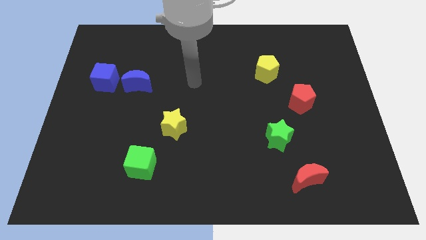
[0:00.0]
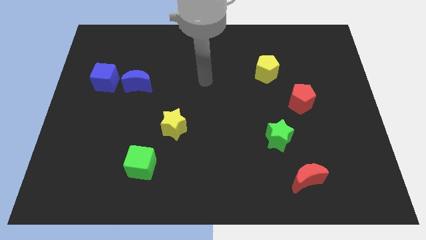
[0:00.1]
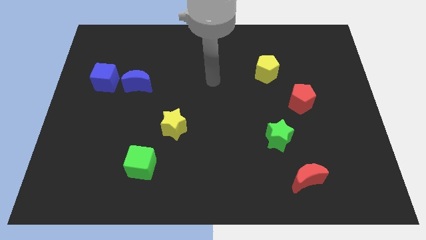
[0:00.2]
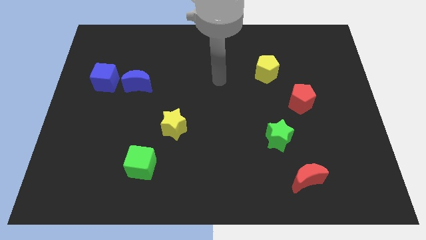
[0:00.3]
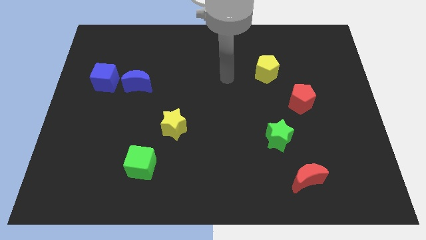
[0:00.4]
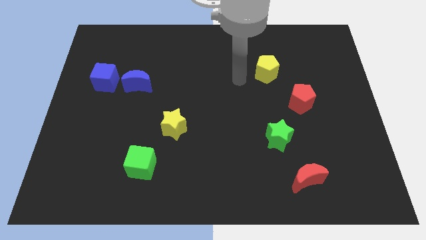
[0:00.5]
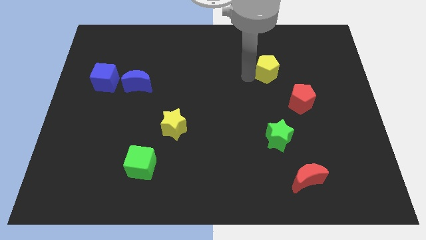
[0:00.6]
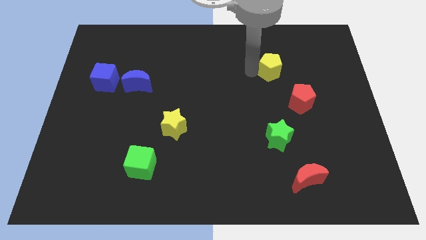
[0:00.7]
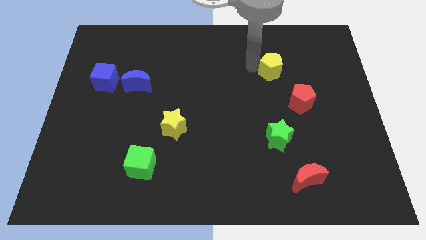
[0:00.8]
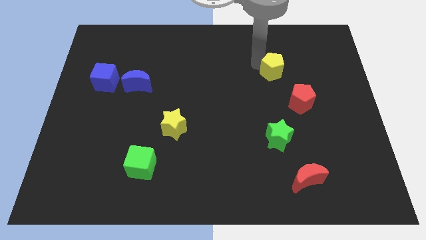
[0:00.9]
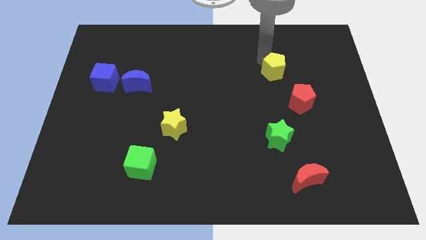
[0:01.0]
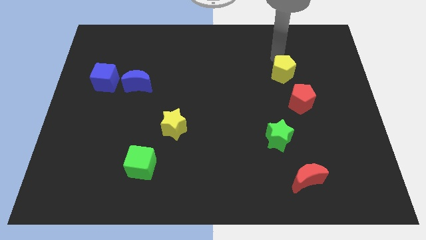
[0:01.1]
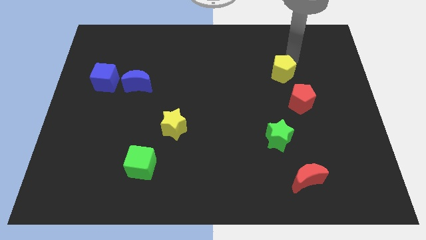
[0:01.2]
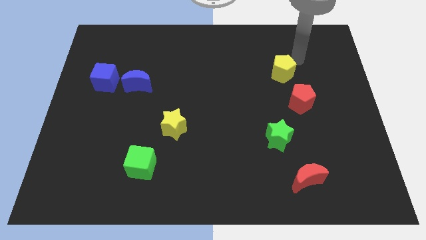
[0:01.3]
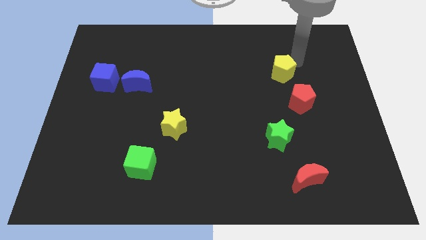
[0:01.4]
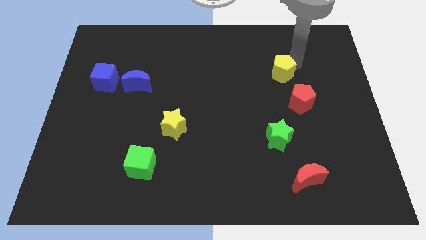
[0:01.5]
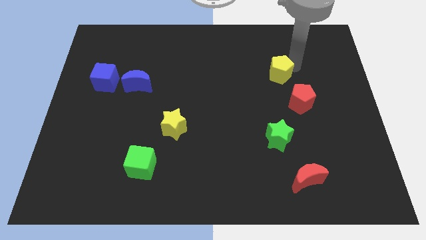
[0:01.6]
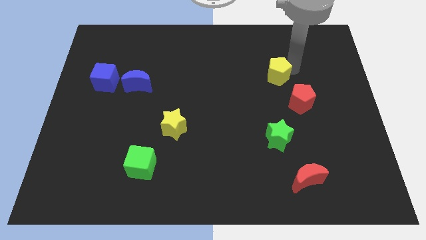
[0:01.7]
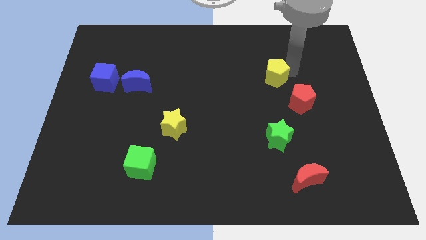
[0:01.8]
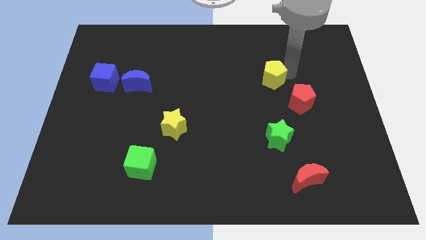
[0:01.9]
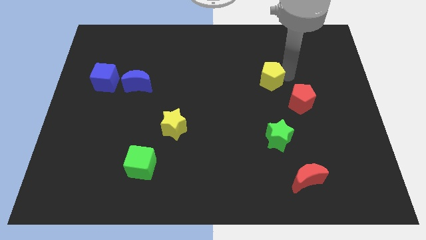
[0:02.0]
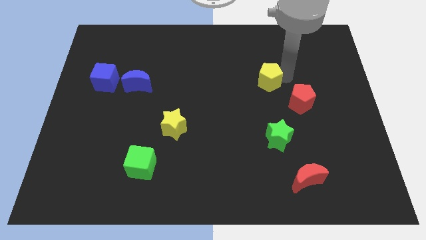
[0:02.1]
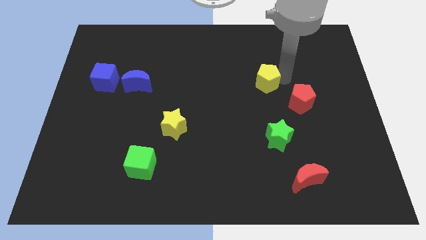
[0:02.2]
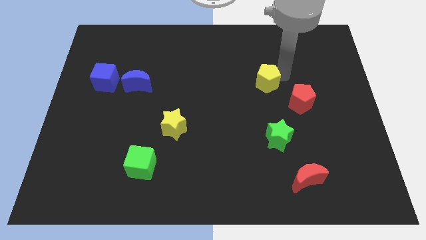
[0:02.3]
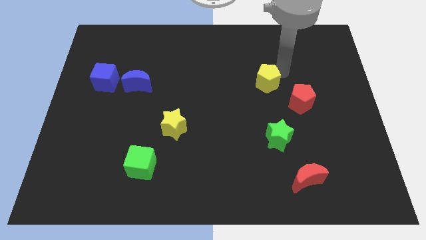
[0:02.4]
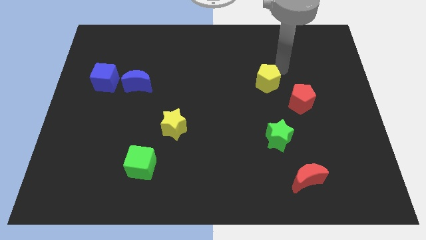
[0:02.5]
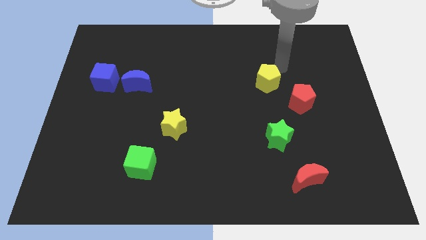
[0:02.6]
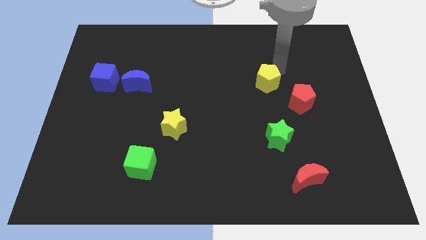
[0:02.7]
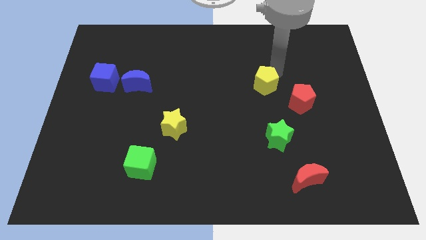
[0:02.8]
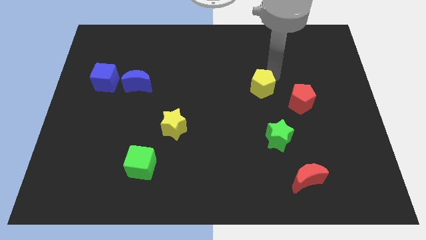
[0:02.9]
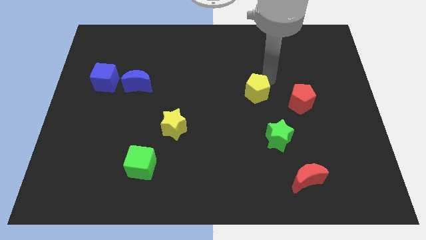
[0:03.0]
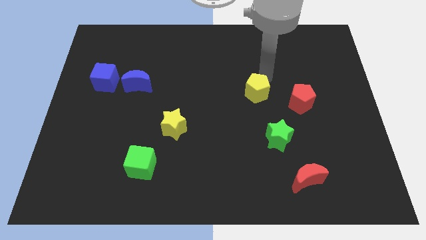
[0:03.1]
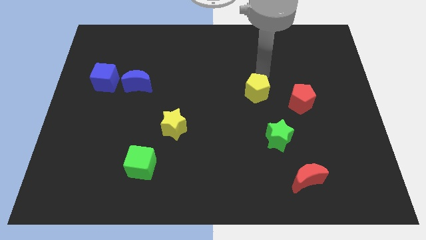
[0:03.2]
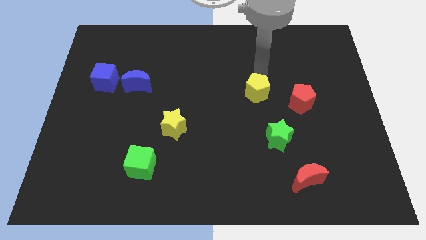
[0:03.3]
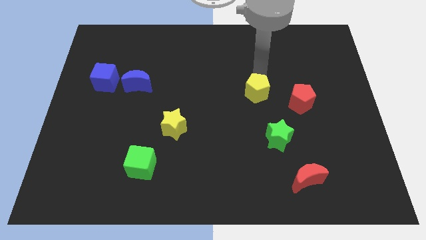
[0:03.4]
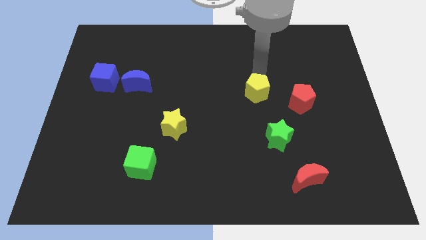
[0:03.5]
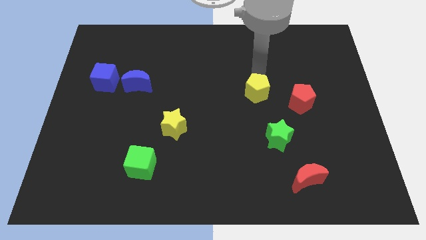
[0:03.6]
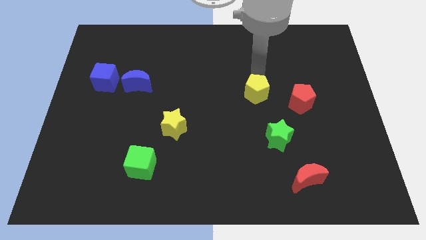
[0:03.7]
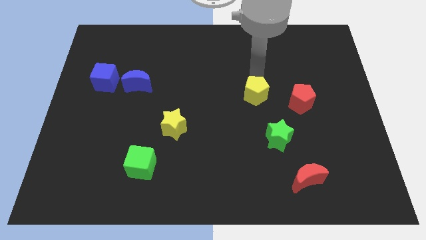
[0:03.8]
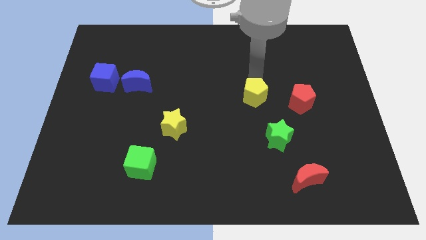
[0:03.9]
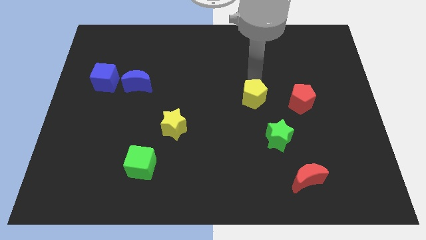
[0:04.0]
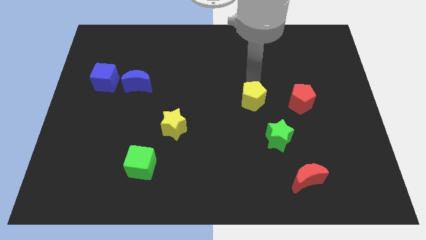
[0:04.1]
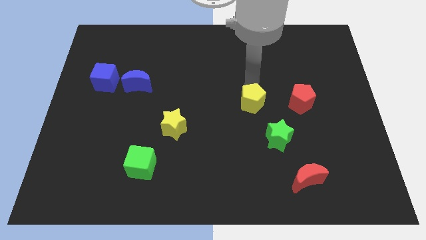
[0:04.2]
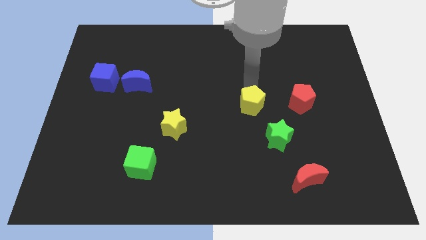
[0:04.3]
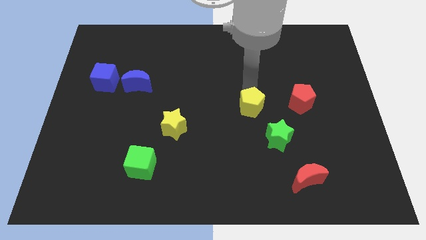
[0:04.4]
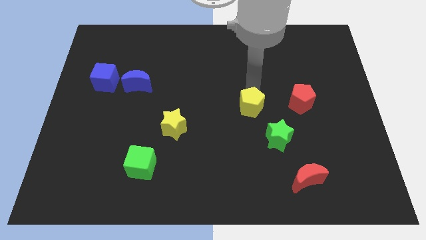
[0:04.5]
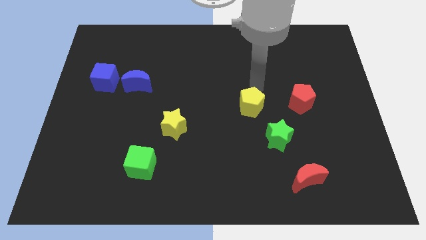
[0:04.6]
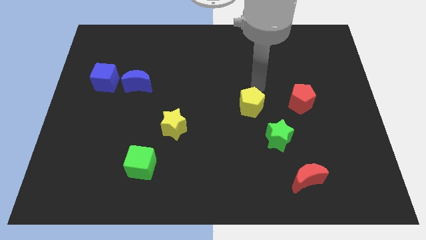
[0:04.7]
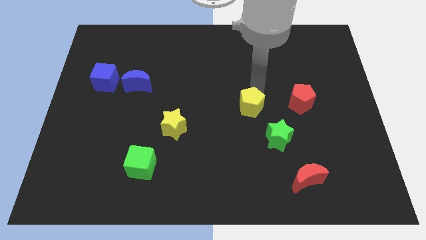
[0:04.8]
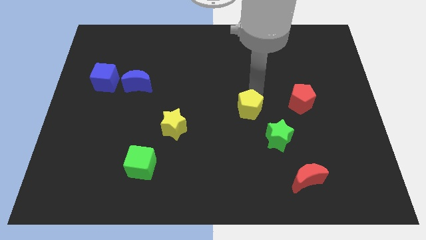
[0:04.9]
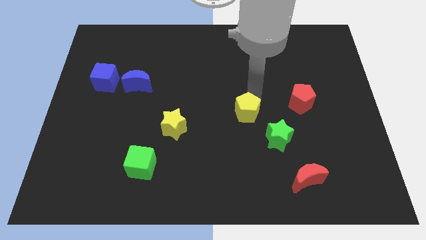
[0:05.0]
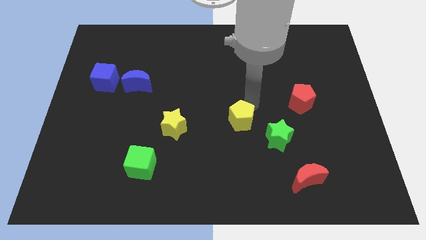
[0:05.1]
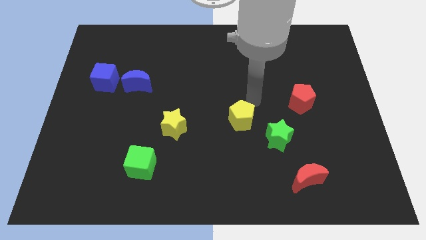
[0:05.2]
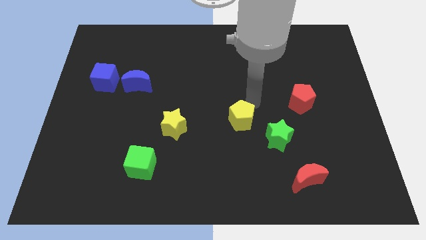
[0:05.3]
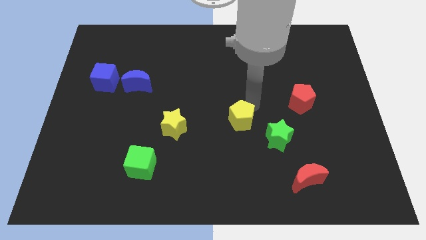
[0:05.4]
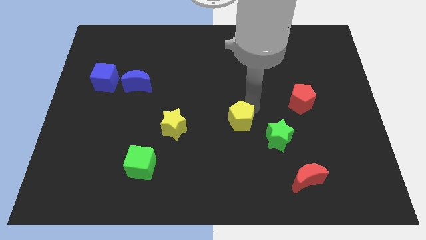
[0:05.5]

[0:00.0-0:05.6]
put the yellow pentagon just left of the green star

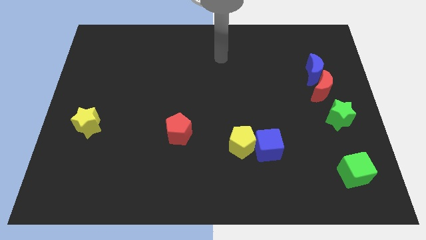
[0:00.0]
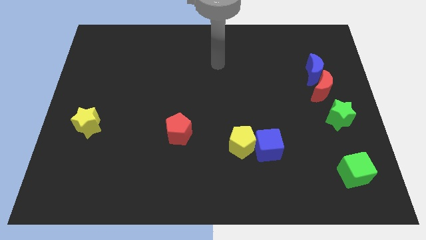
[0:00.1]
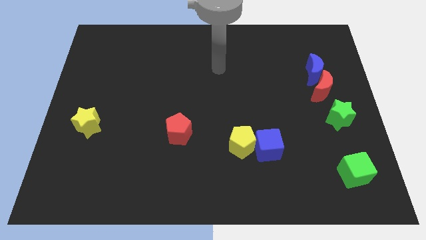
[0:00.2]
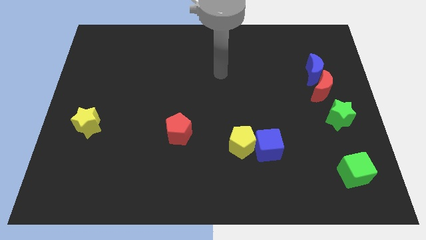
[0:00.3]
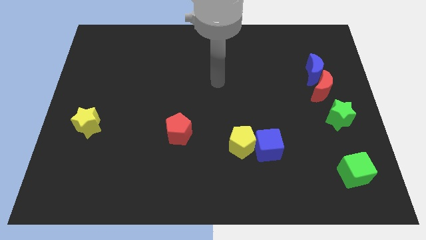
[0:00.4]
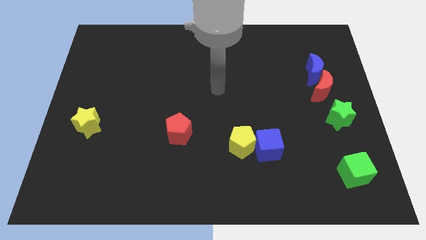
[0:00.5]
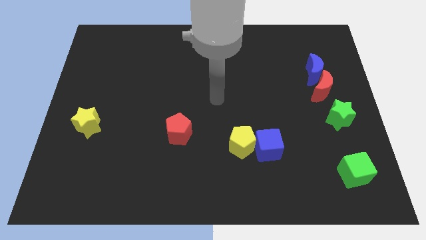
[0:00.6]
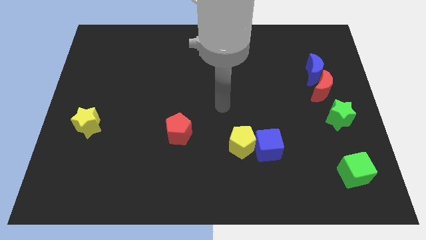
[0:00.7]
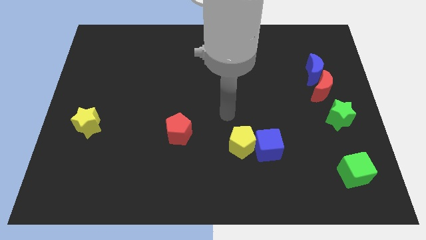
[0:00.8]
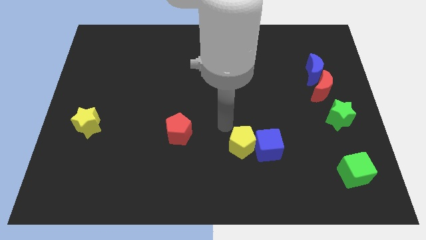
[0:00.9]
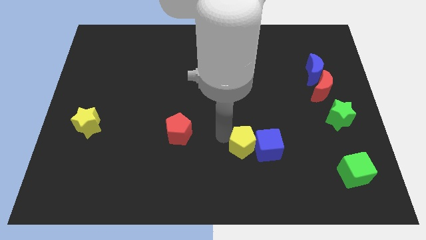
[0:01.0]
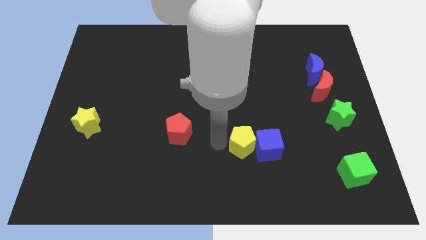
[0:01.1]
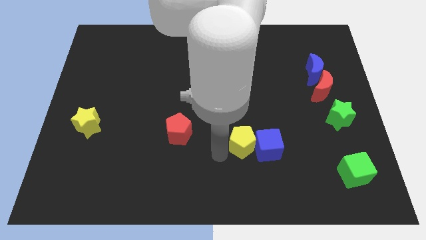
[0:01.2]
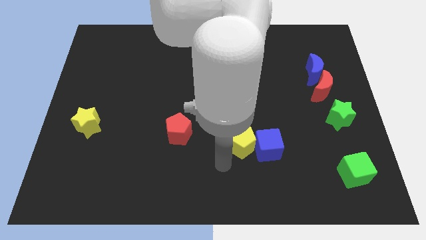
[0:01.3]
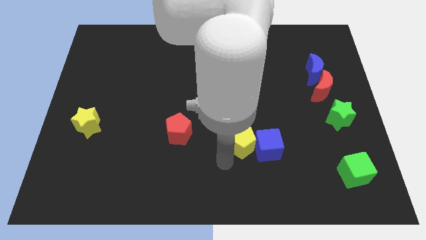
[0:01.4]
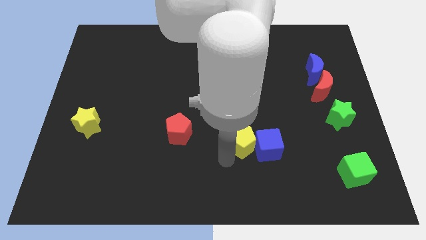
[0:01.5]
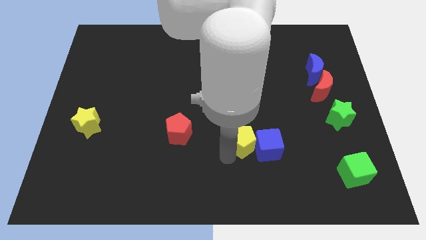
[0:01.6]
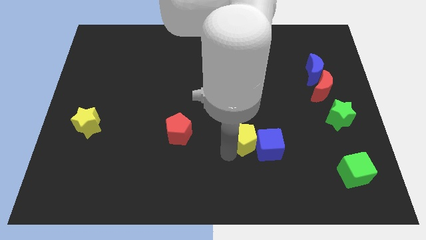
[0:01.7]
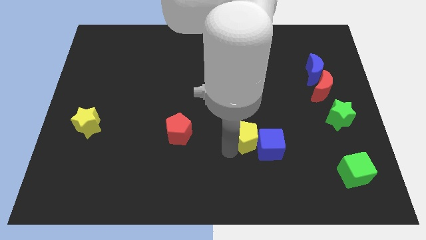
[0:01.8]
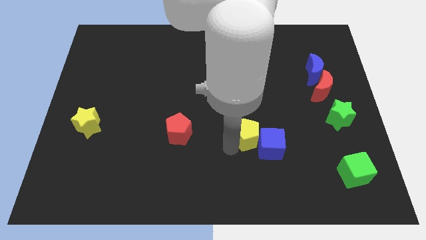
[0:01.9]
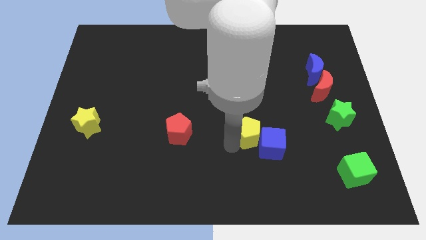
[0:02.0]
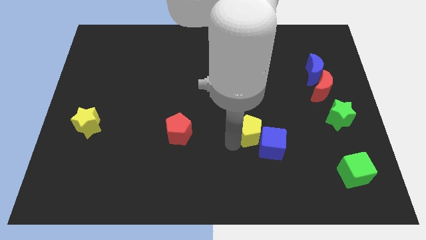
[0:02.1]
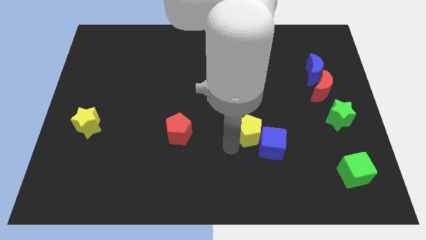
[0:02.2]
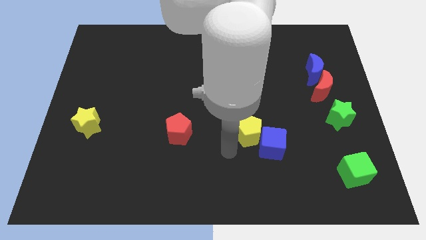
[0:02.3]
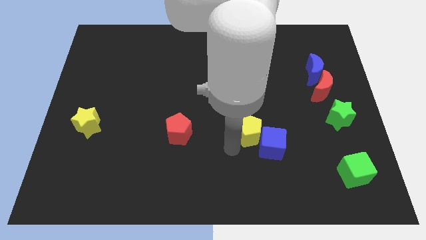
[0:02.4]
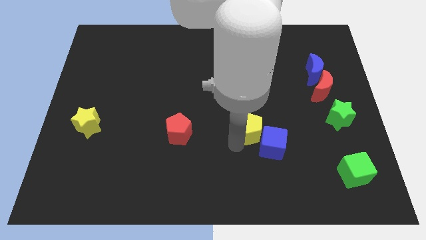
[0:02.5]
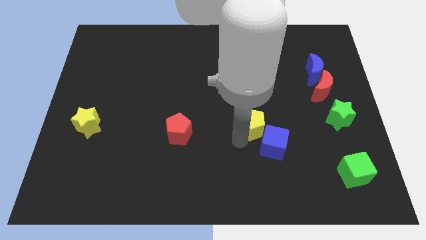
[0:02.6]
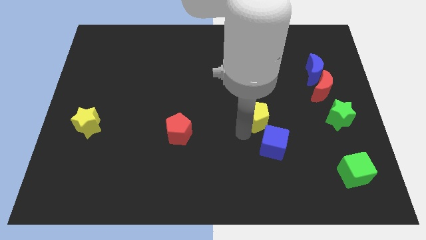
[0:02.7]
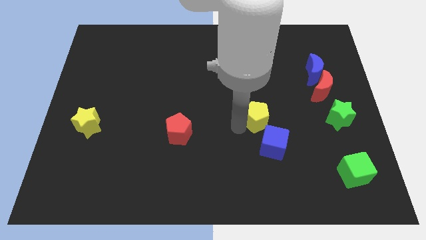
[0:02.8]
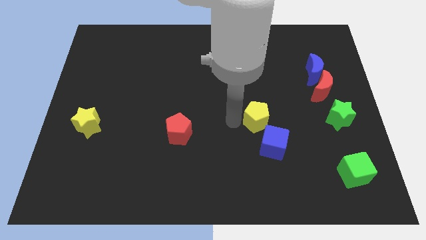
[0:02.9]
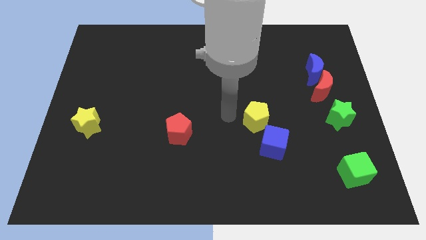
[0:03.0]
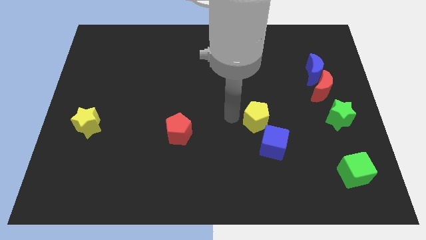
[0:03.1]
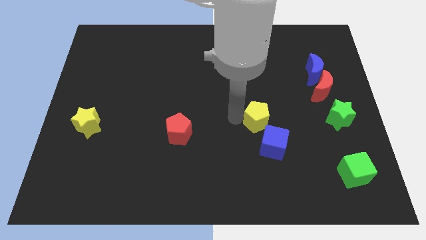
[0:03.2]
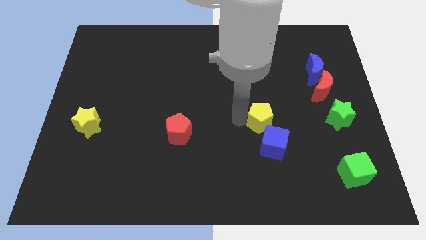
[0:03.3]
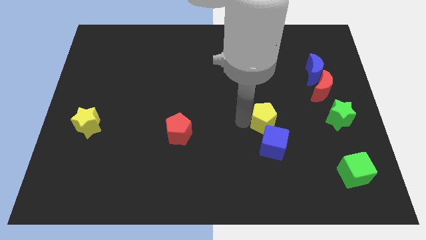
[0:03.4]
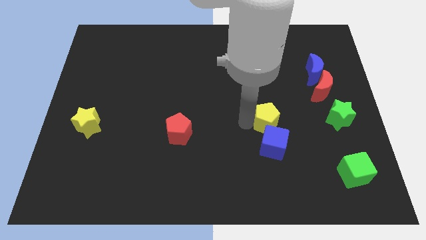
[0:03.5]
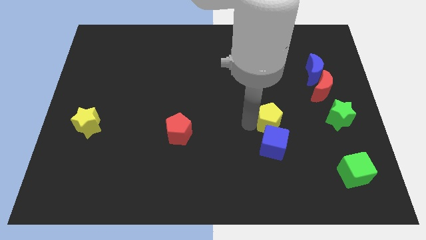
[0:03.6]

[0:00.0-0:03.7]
move the yellow pentagon to the top right of the blue cube
